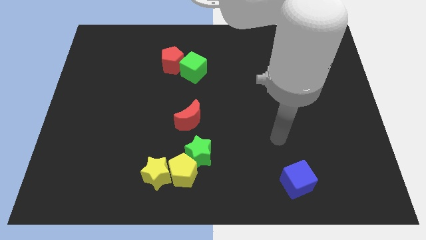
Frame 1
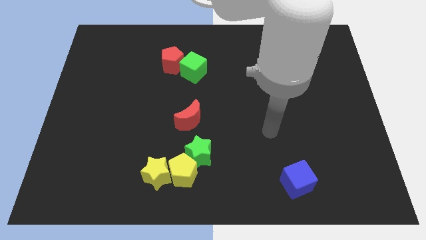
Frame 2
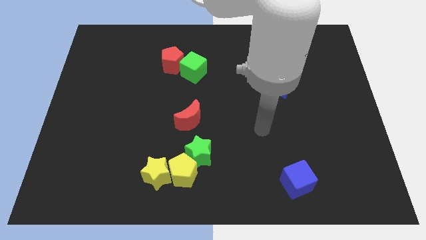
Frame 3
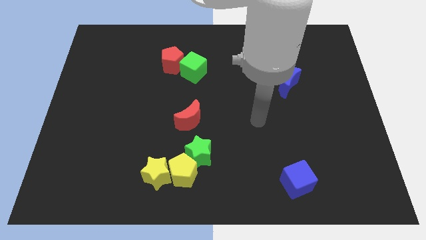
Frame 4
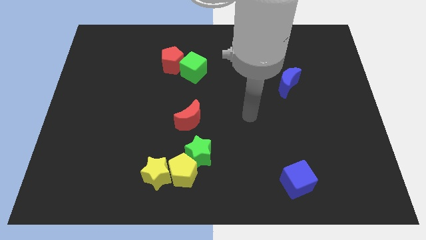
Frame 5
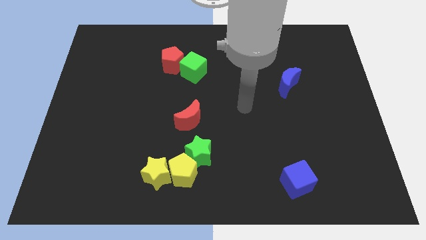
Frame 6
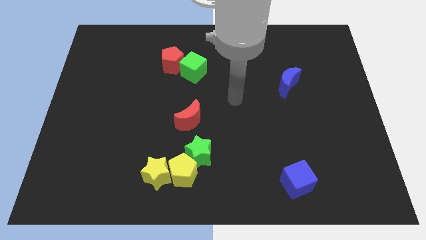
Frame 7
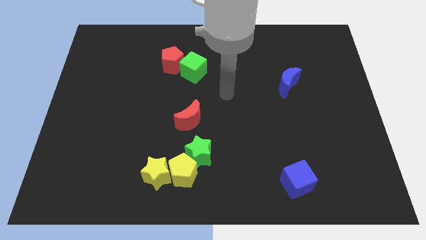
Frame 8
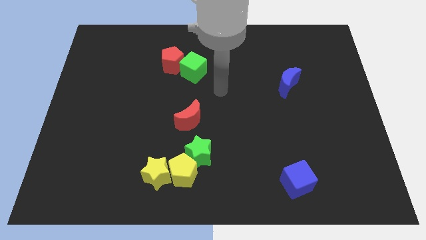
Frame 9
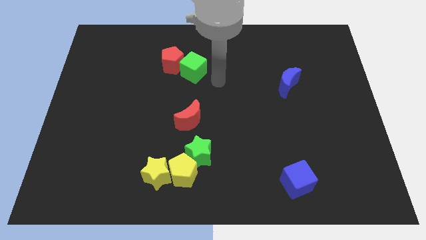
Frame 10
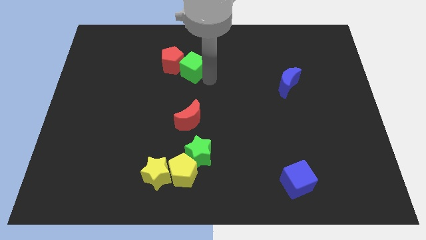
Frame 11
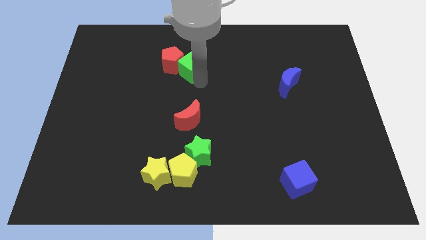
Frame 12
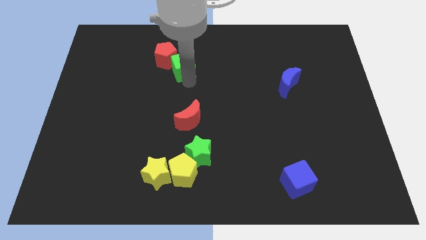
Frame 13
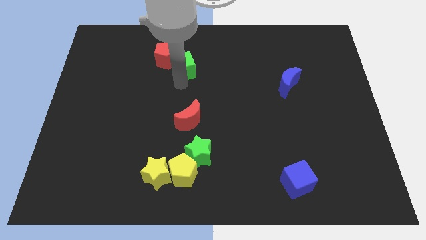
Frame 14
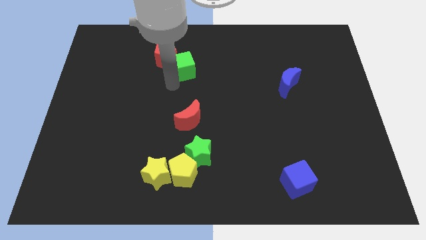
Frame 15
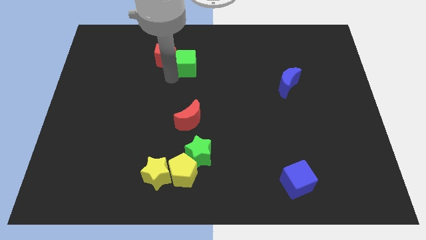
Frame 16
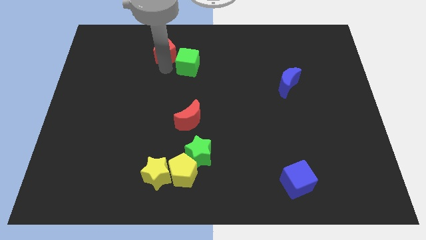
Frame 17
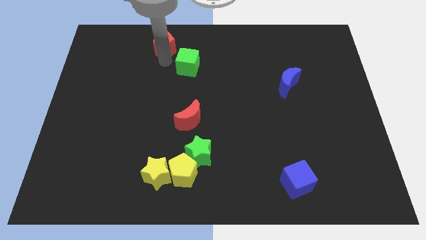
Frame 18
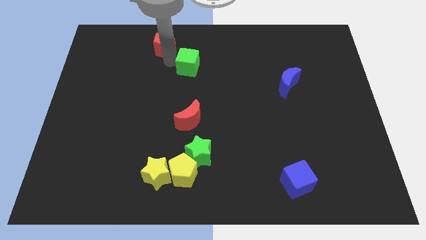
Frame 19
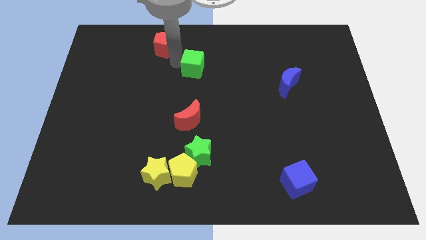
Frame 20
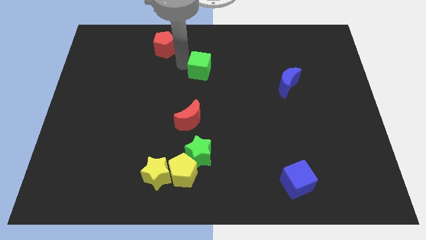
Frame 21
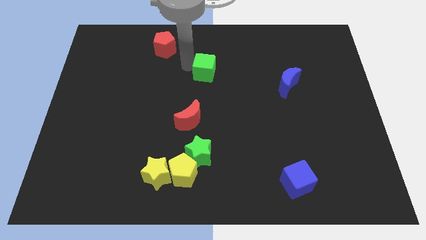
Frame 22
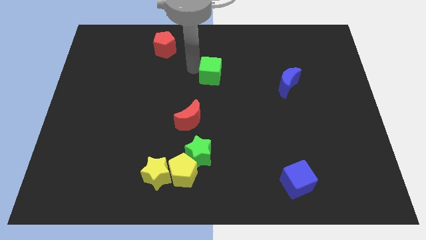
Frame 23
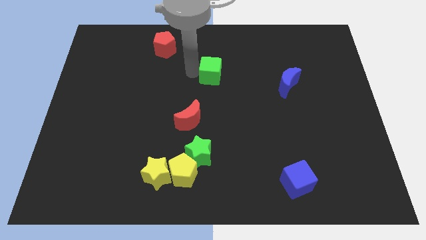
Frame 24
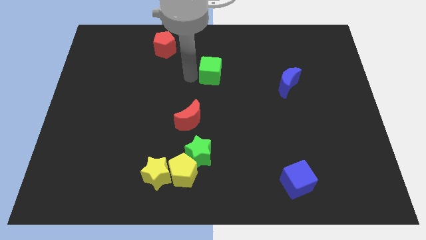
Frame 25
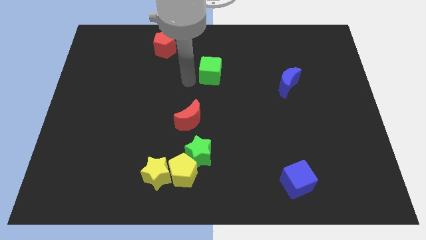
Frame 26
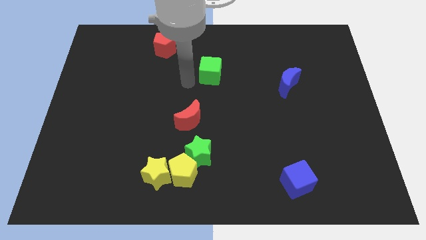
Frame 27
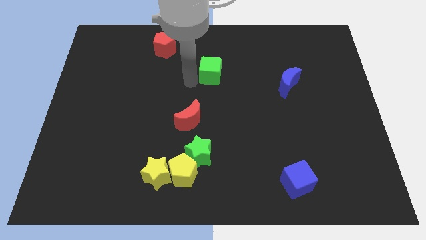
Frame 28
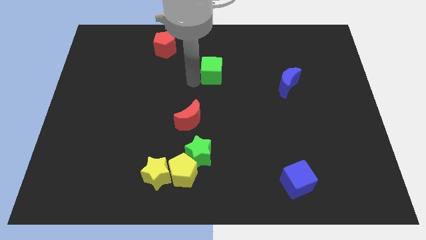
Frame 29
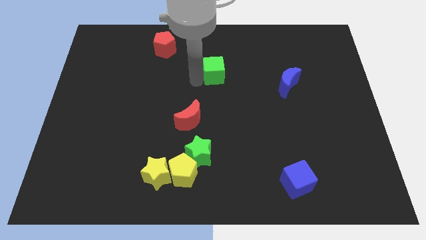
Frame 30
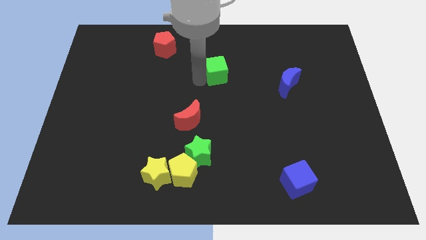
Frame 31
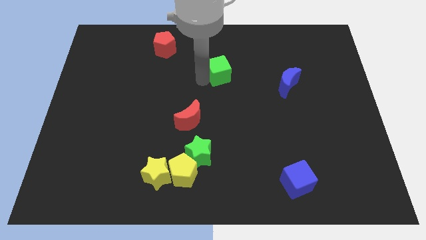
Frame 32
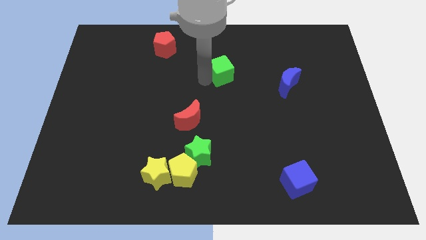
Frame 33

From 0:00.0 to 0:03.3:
slide the green cube a little bit right

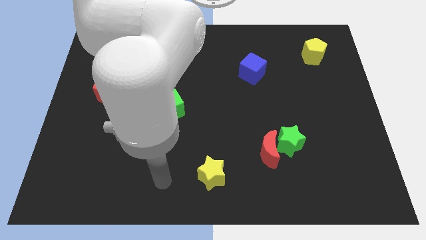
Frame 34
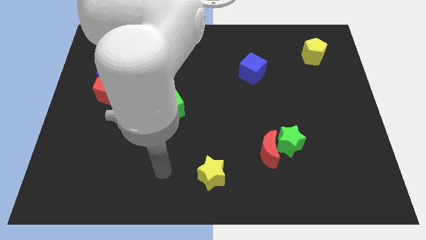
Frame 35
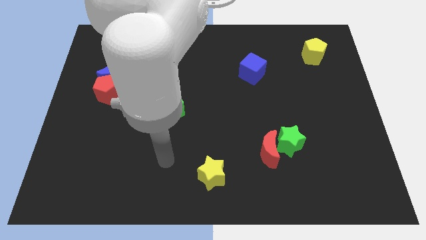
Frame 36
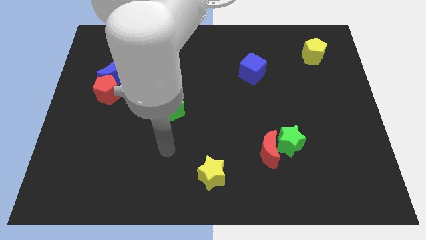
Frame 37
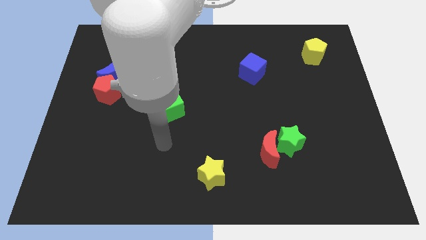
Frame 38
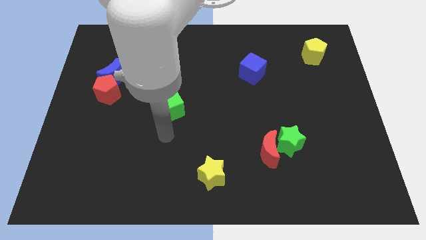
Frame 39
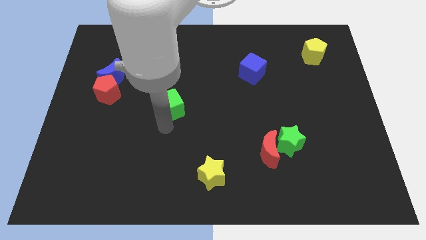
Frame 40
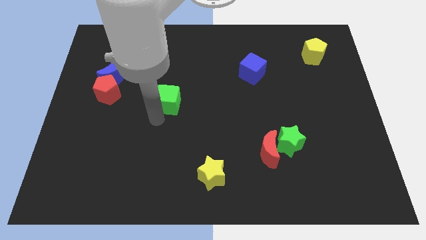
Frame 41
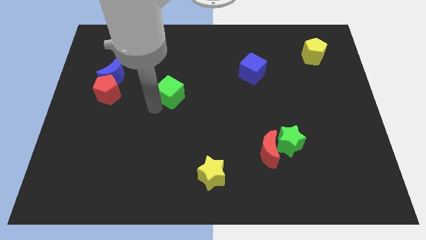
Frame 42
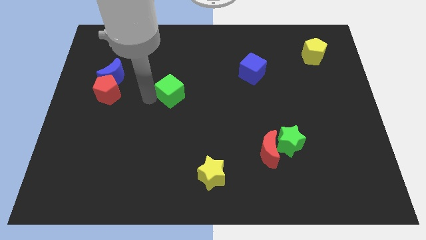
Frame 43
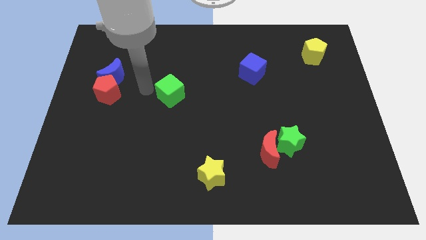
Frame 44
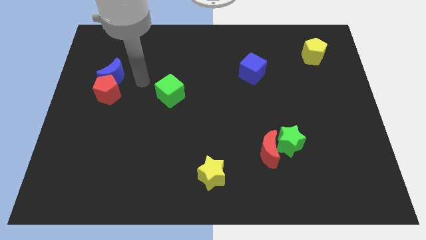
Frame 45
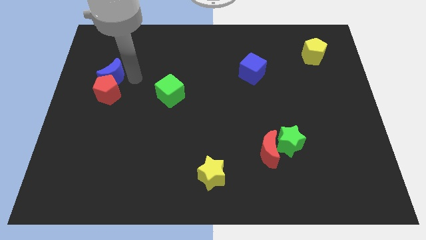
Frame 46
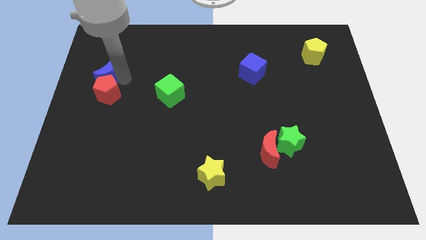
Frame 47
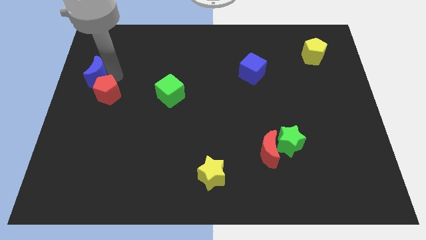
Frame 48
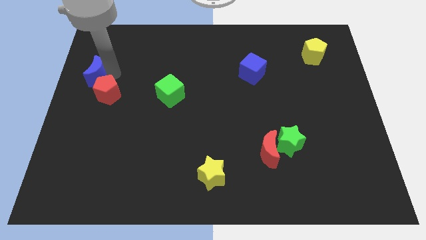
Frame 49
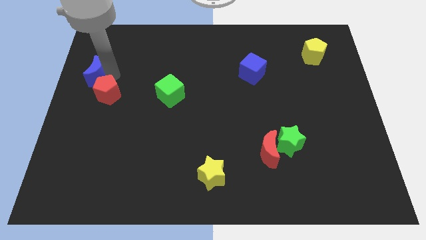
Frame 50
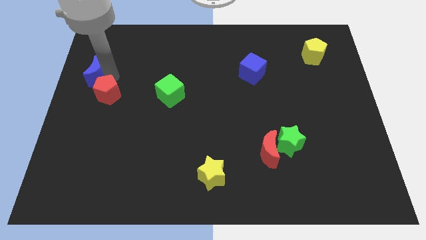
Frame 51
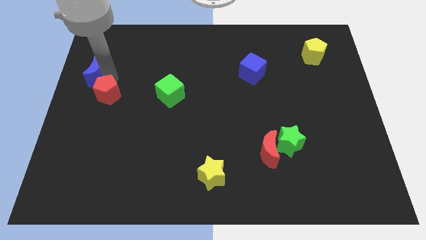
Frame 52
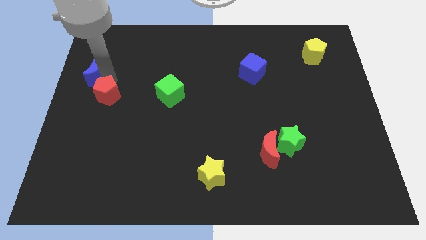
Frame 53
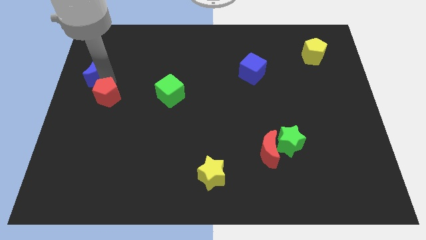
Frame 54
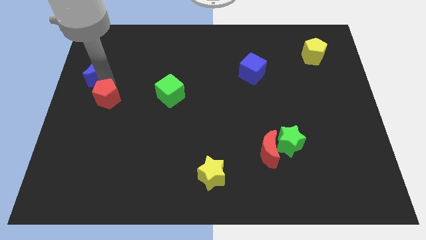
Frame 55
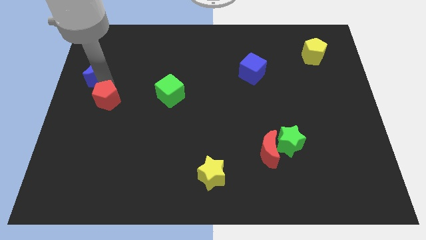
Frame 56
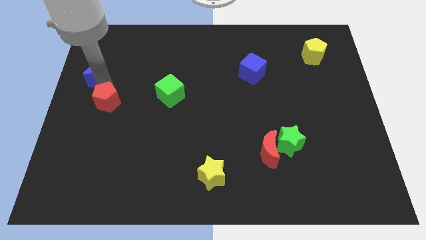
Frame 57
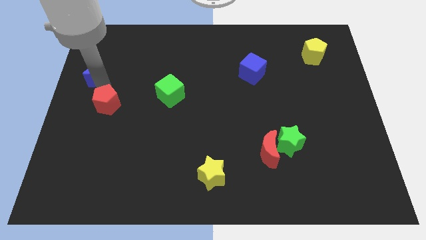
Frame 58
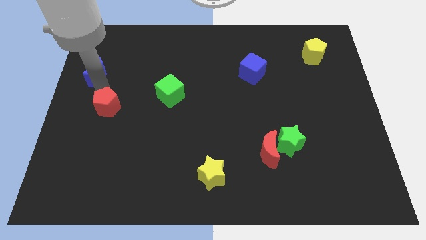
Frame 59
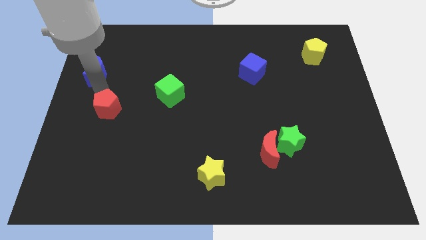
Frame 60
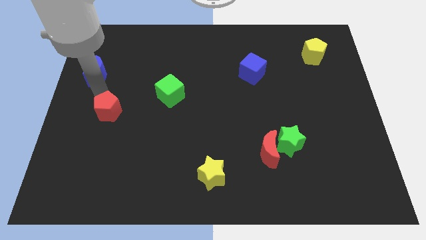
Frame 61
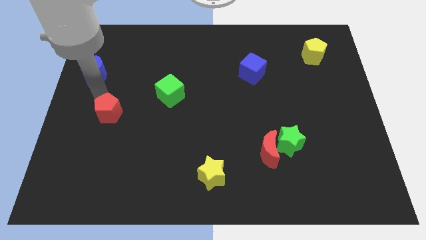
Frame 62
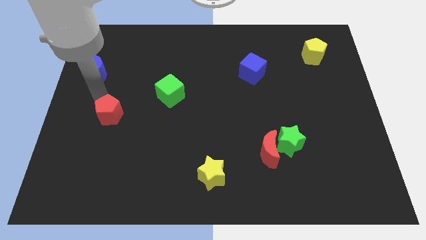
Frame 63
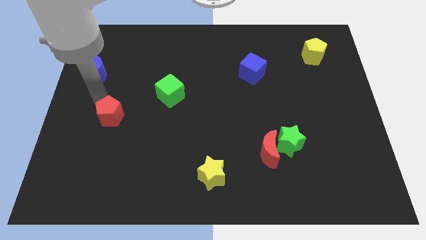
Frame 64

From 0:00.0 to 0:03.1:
slightly move the red pentagon down

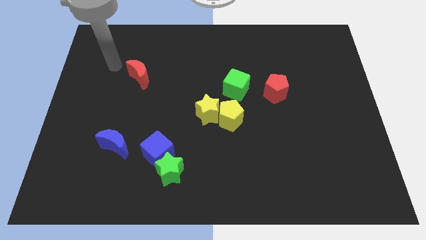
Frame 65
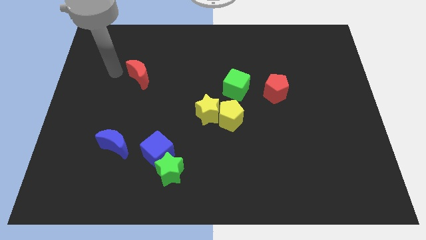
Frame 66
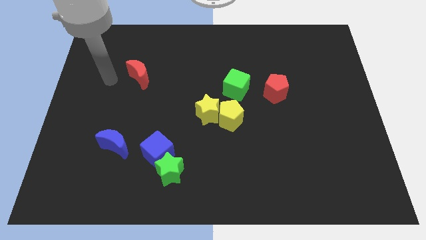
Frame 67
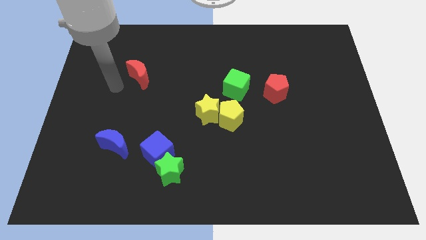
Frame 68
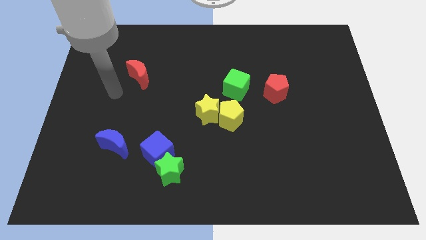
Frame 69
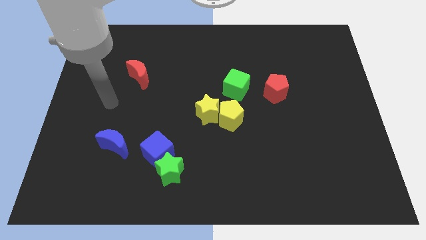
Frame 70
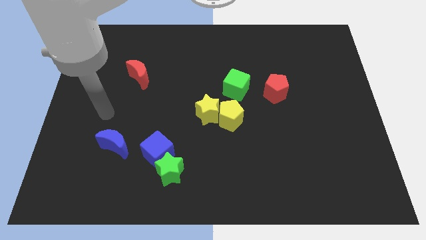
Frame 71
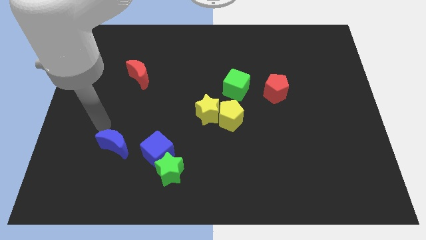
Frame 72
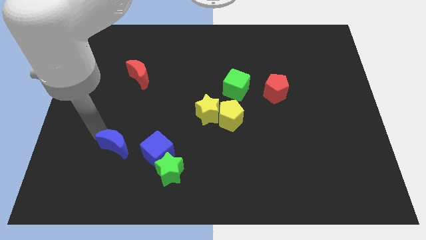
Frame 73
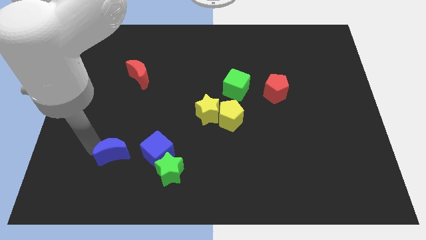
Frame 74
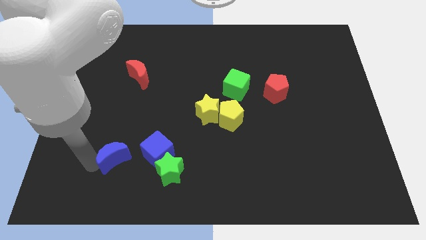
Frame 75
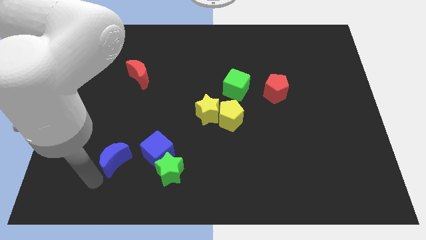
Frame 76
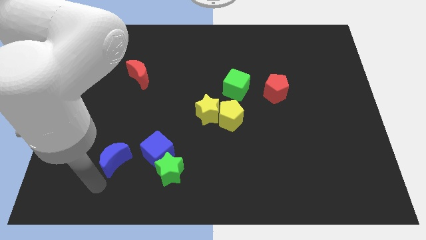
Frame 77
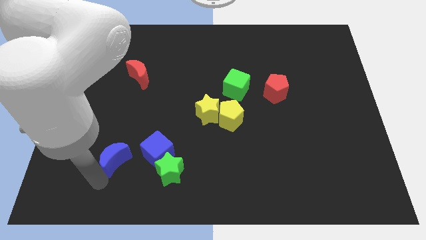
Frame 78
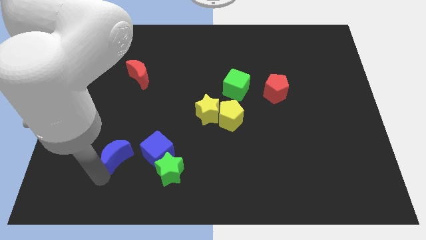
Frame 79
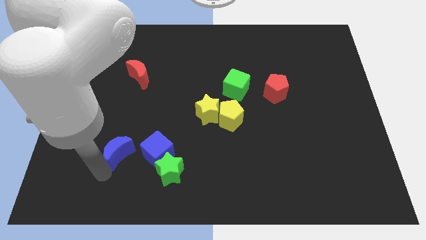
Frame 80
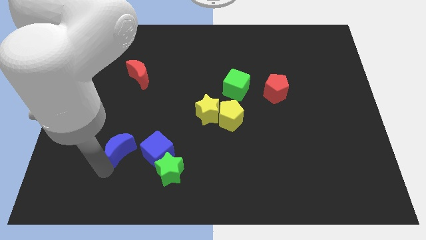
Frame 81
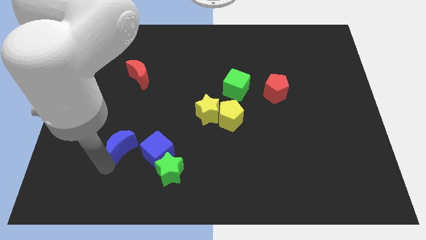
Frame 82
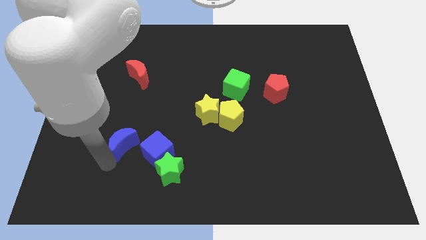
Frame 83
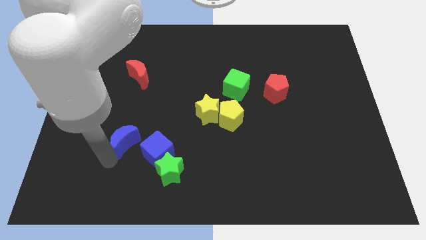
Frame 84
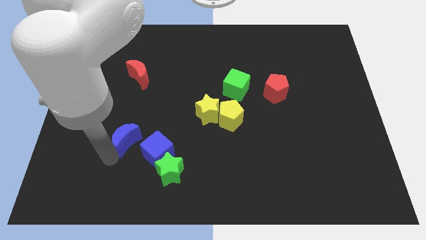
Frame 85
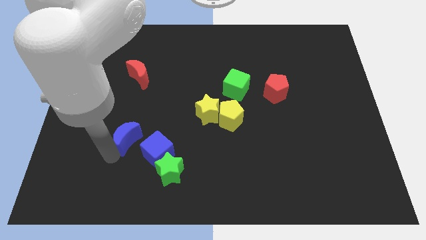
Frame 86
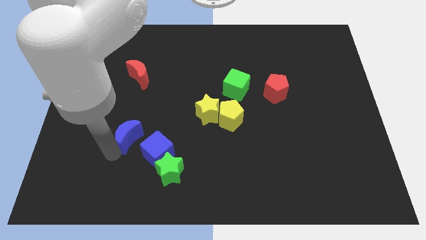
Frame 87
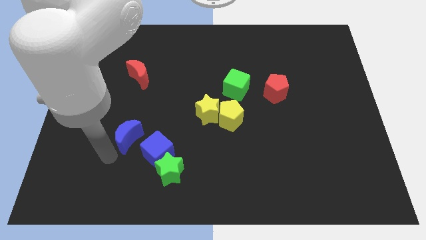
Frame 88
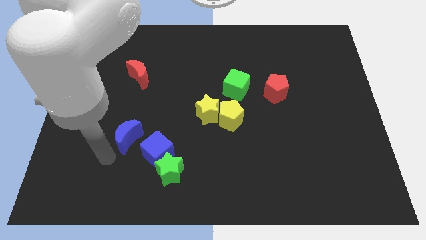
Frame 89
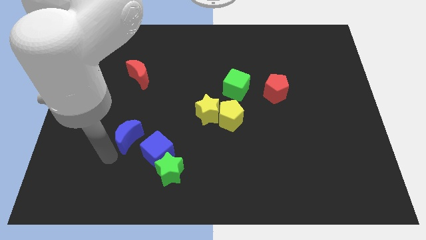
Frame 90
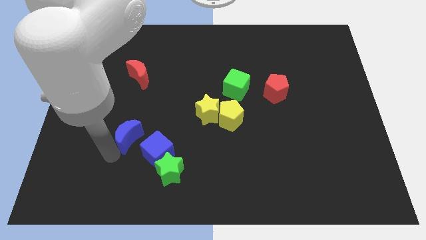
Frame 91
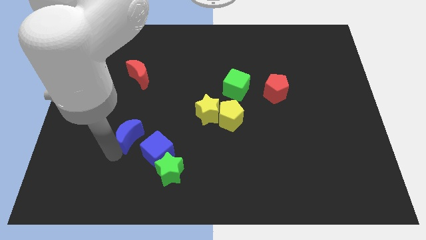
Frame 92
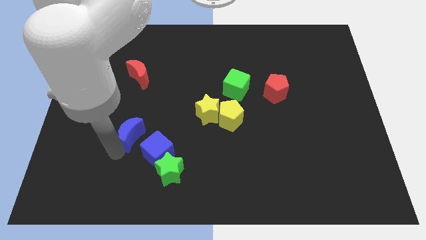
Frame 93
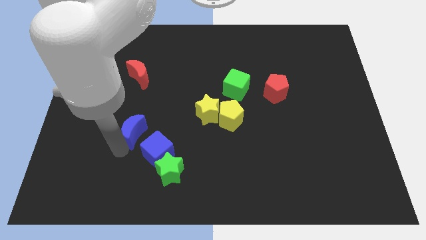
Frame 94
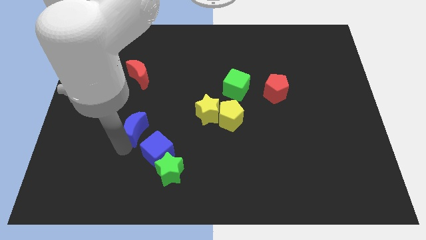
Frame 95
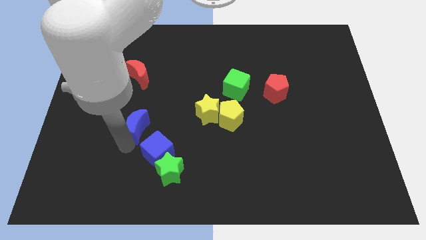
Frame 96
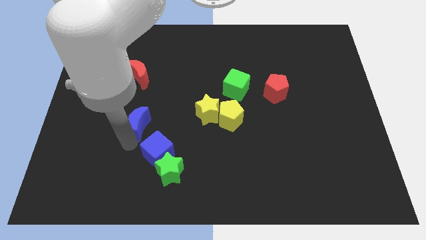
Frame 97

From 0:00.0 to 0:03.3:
move the blue moon up and then to the right slightly
